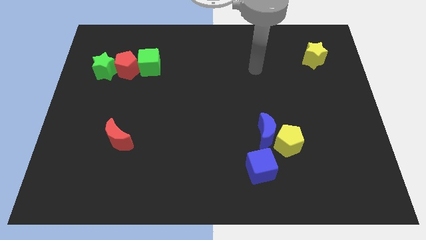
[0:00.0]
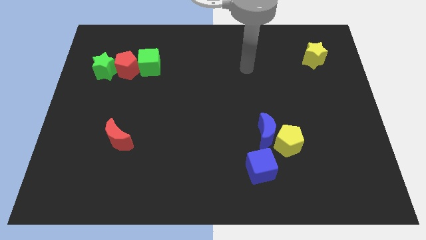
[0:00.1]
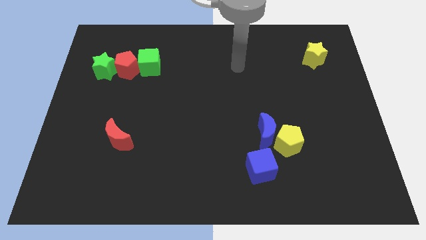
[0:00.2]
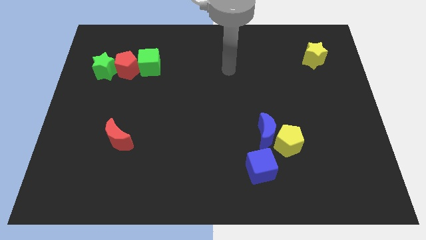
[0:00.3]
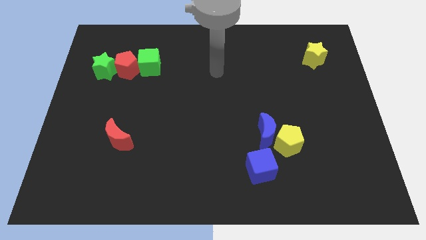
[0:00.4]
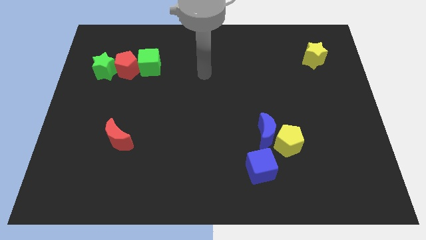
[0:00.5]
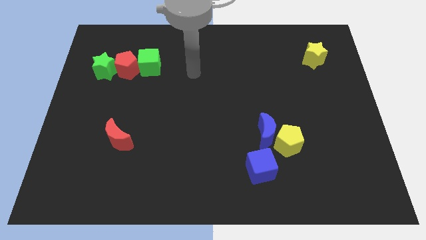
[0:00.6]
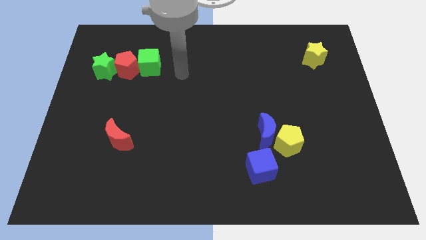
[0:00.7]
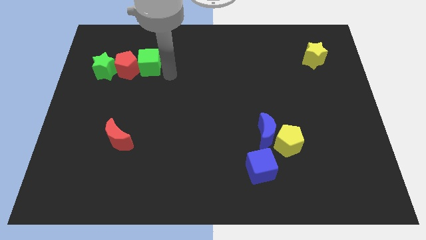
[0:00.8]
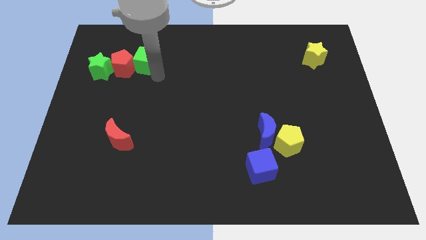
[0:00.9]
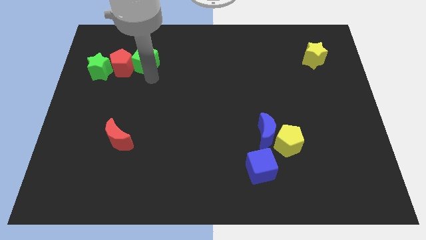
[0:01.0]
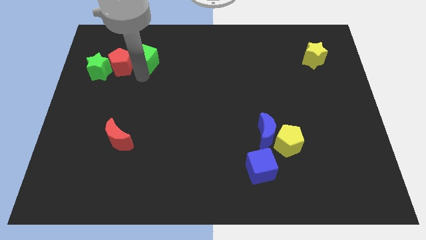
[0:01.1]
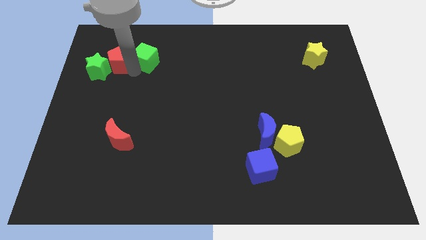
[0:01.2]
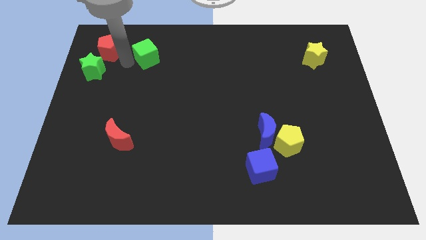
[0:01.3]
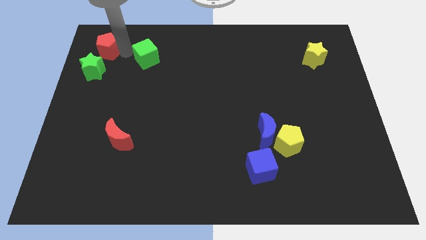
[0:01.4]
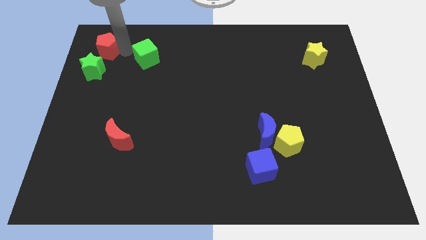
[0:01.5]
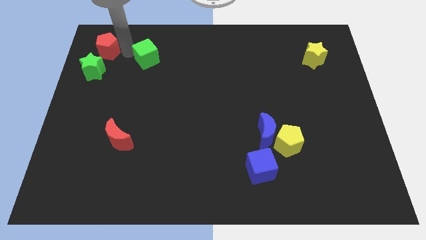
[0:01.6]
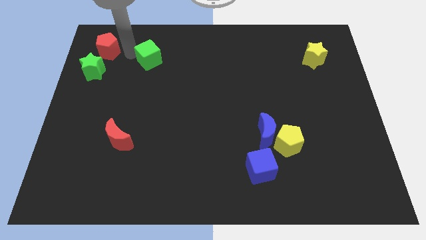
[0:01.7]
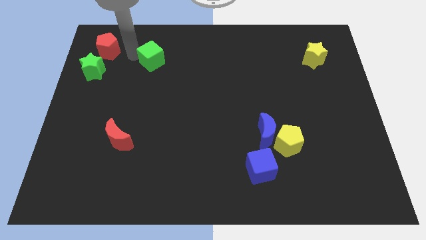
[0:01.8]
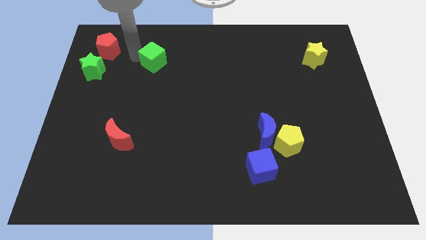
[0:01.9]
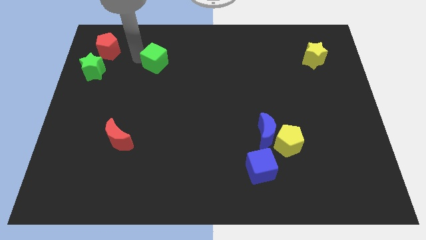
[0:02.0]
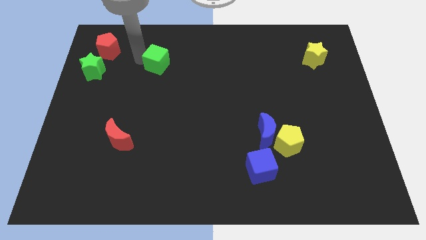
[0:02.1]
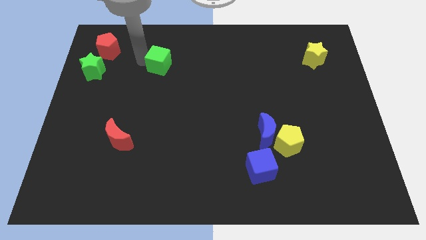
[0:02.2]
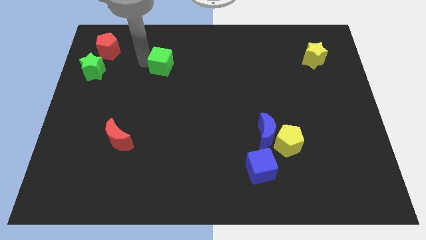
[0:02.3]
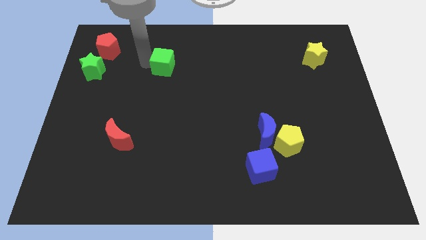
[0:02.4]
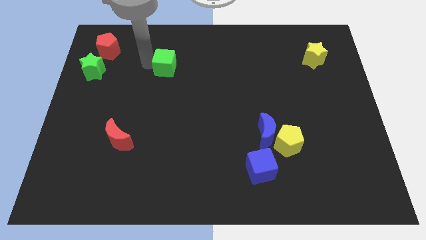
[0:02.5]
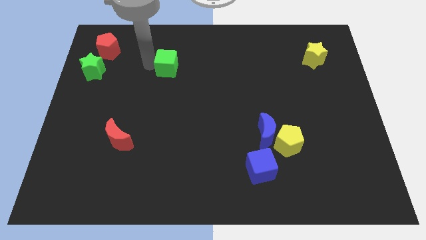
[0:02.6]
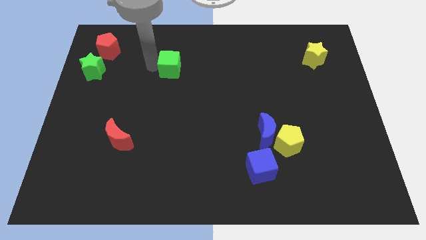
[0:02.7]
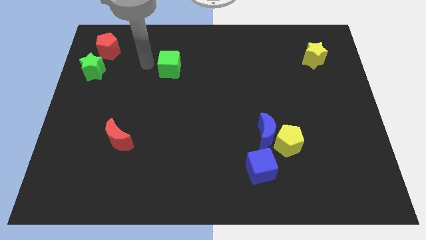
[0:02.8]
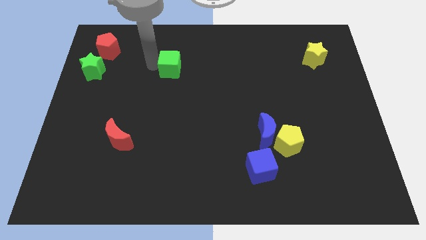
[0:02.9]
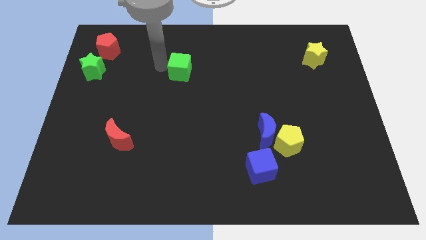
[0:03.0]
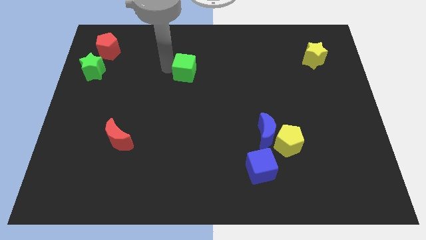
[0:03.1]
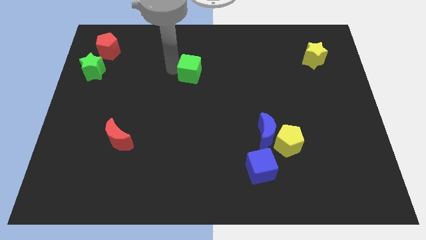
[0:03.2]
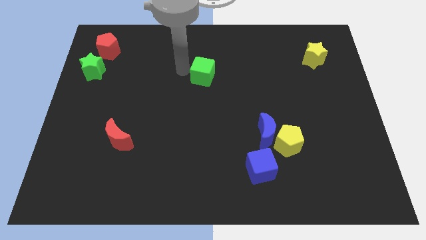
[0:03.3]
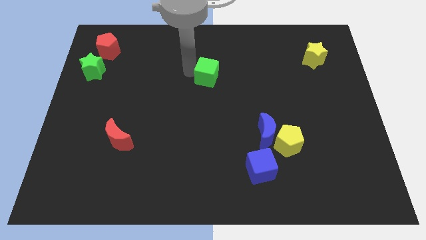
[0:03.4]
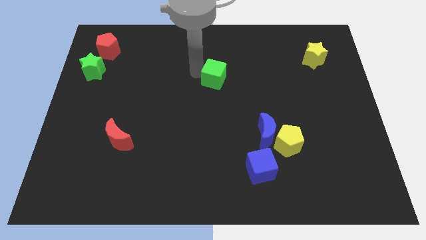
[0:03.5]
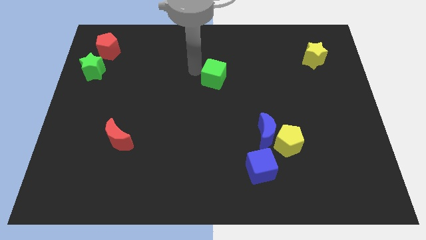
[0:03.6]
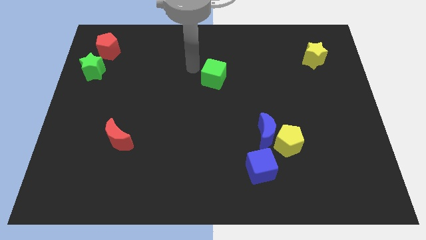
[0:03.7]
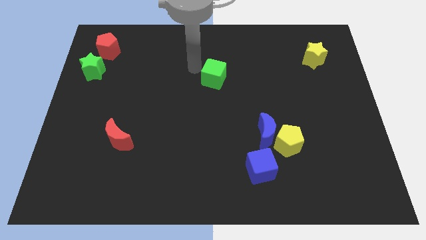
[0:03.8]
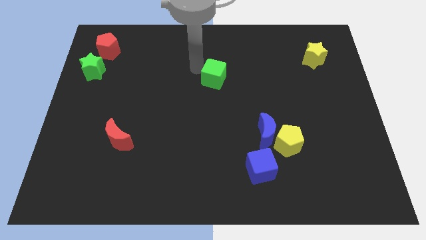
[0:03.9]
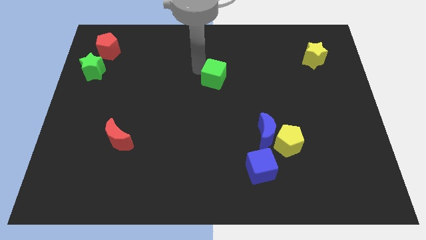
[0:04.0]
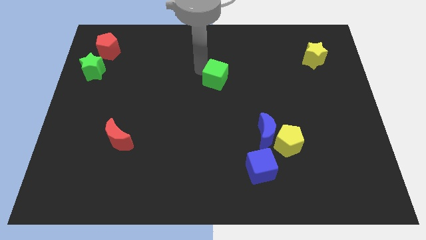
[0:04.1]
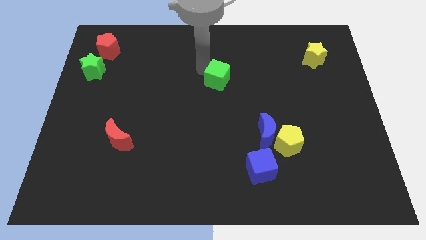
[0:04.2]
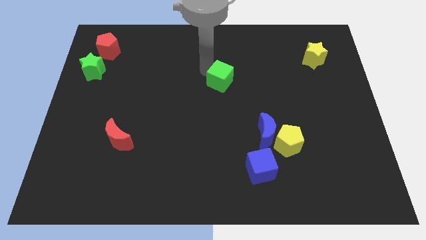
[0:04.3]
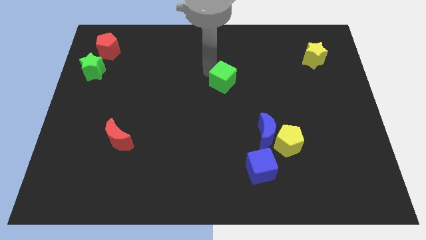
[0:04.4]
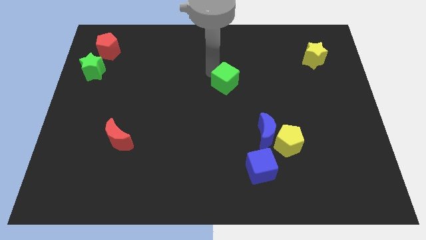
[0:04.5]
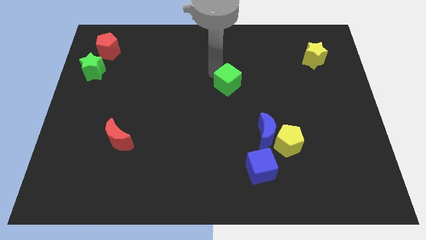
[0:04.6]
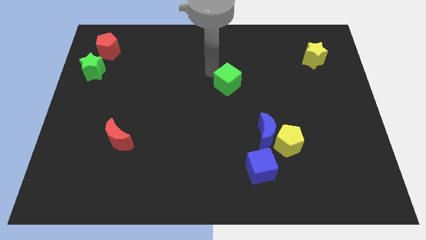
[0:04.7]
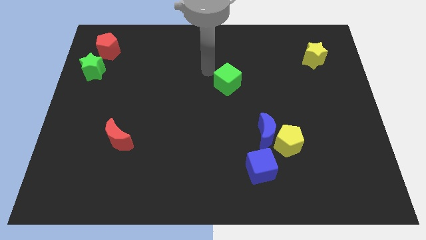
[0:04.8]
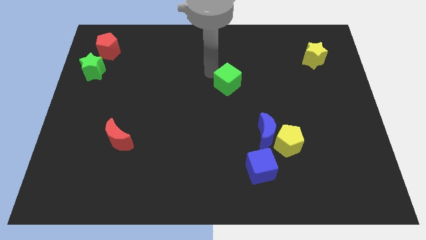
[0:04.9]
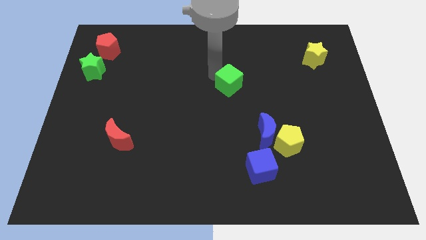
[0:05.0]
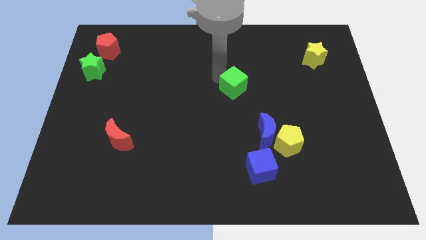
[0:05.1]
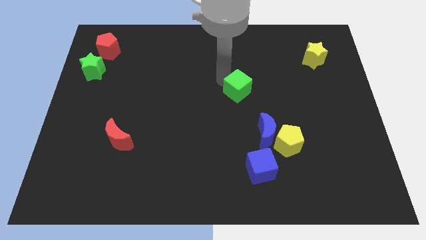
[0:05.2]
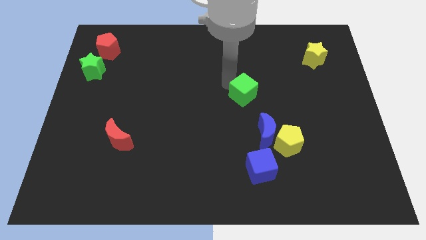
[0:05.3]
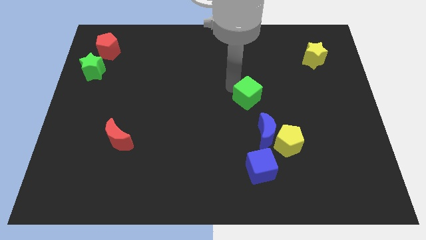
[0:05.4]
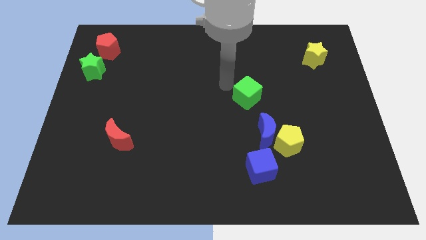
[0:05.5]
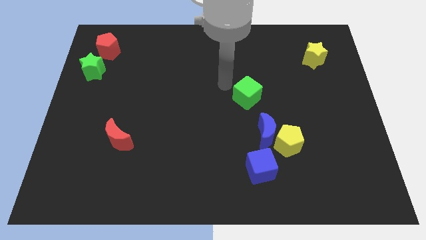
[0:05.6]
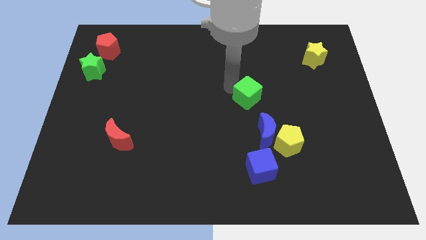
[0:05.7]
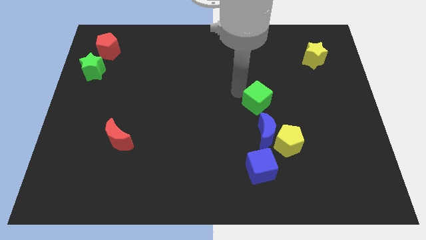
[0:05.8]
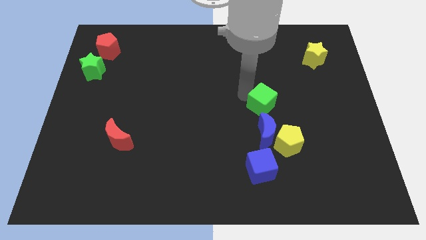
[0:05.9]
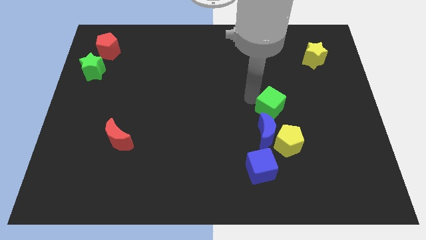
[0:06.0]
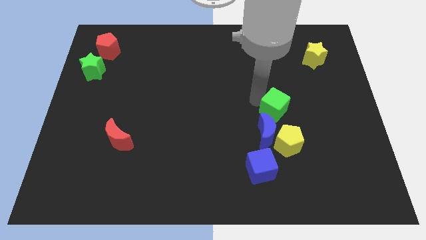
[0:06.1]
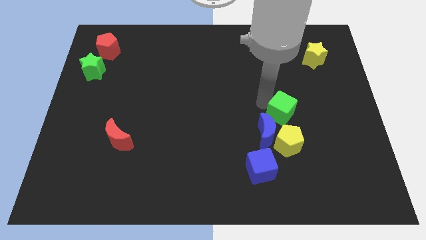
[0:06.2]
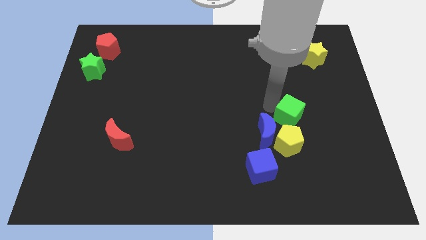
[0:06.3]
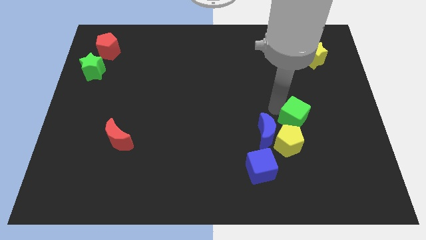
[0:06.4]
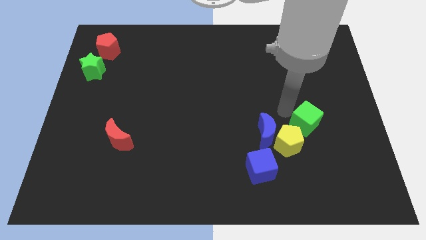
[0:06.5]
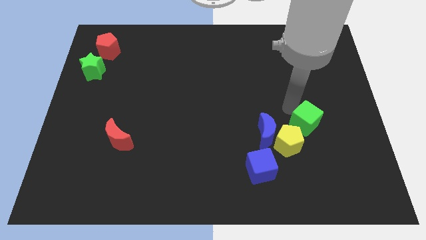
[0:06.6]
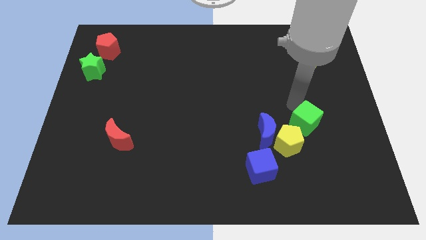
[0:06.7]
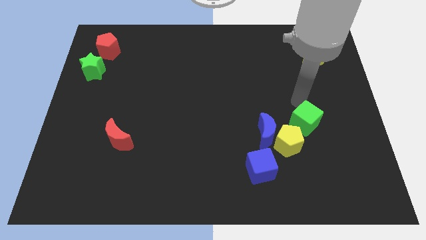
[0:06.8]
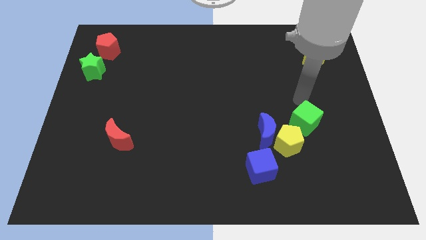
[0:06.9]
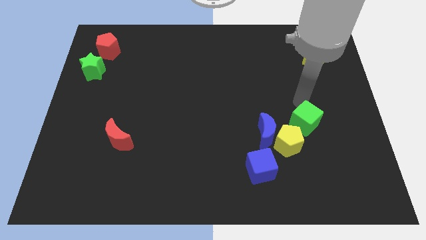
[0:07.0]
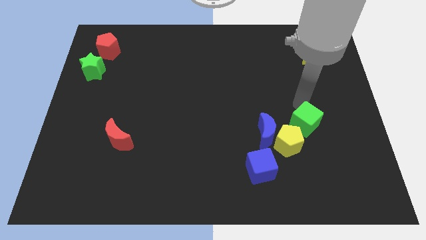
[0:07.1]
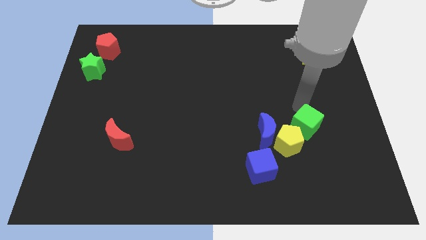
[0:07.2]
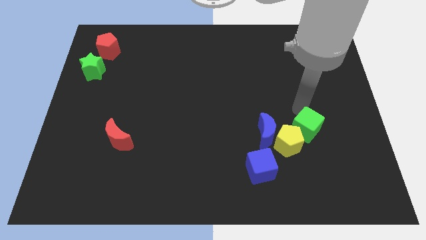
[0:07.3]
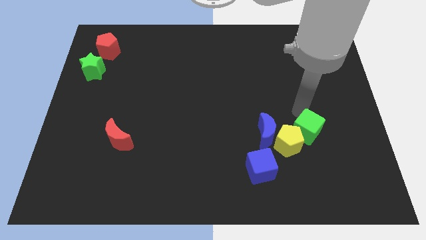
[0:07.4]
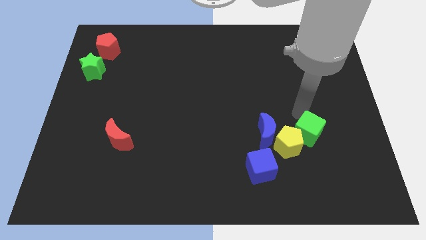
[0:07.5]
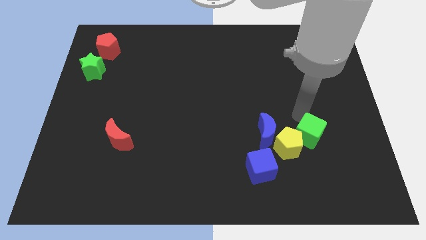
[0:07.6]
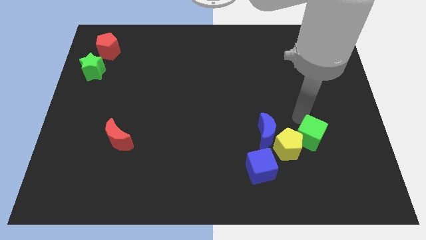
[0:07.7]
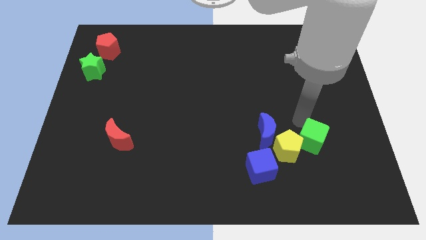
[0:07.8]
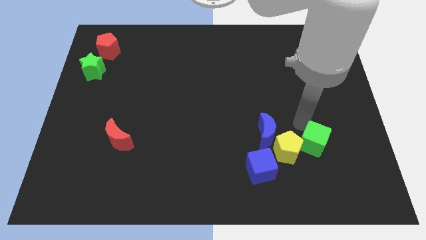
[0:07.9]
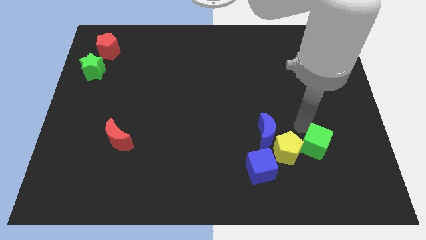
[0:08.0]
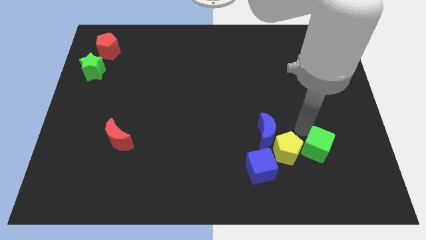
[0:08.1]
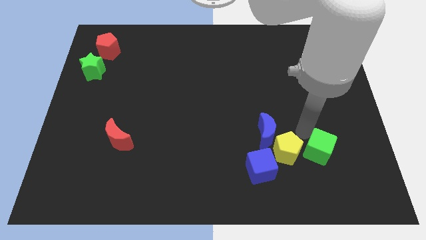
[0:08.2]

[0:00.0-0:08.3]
slide the green cube diagonally down and to the right of the yellow pentagon
